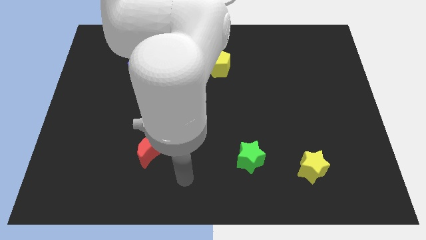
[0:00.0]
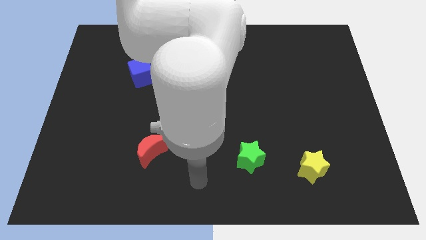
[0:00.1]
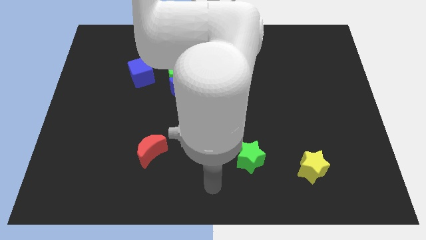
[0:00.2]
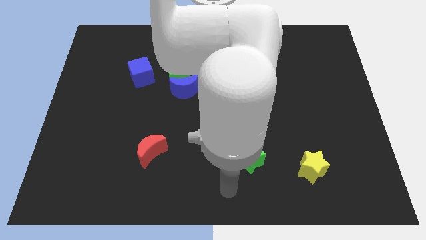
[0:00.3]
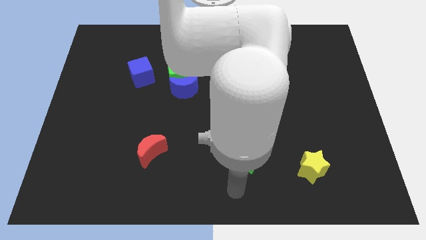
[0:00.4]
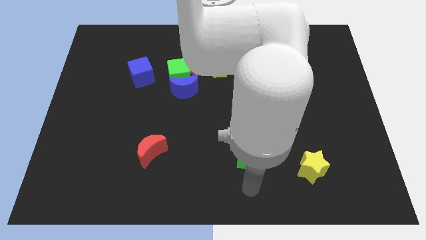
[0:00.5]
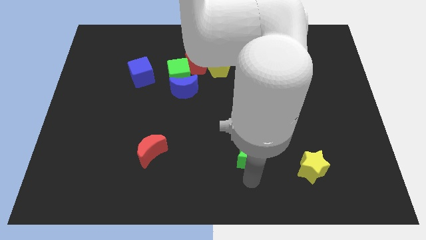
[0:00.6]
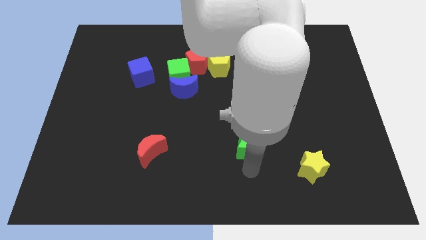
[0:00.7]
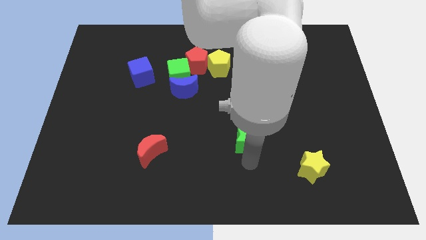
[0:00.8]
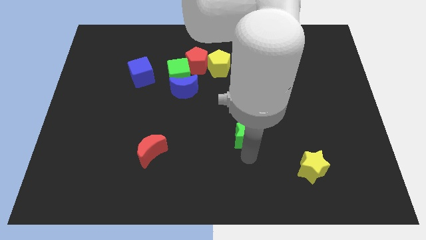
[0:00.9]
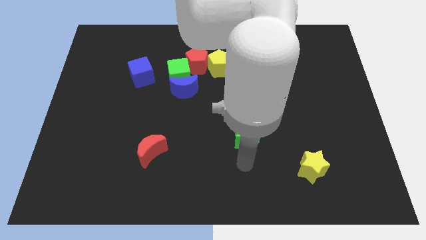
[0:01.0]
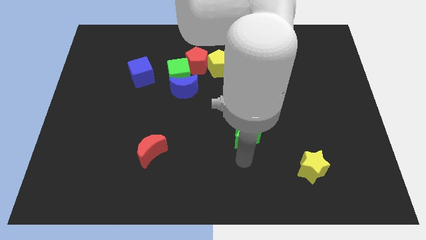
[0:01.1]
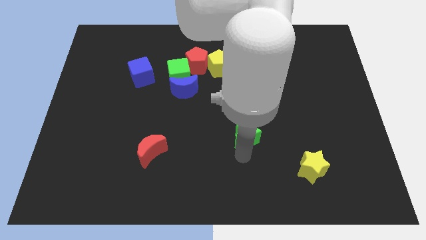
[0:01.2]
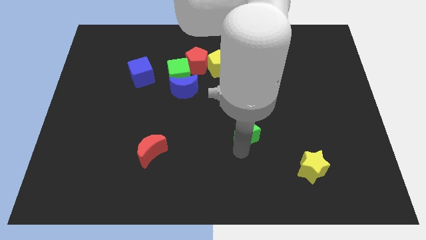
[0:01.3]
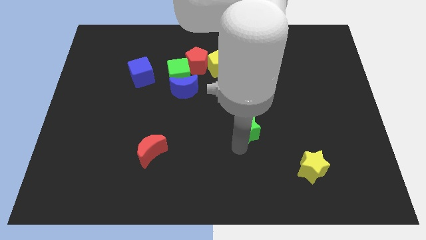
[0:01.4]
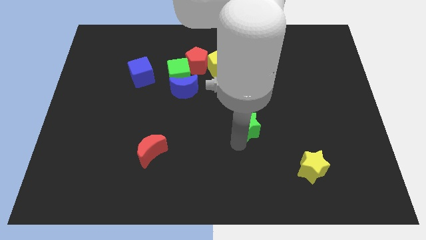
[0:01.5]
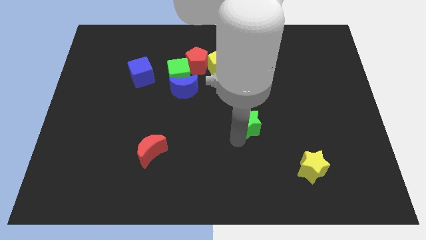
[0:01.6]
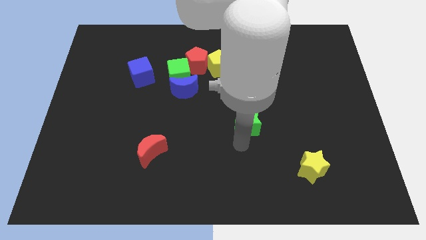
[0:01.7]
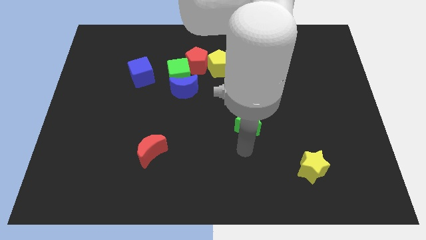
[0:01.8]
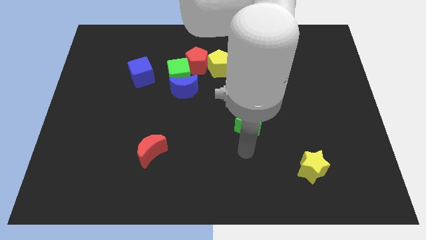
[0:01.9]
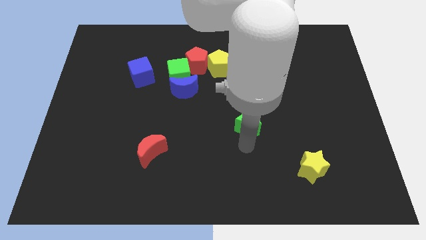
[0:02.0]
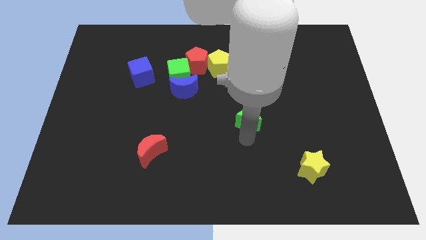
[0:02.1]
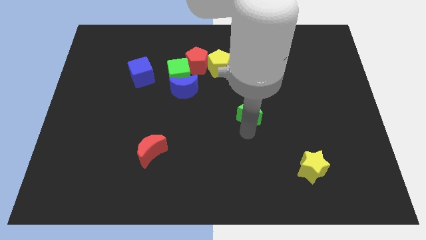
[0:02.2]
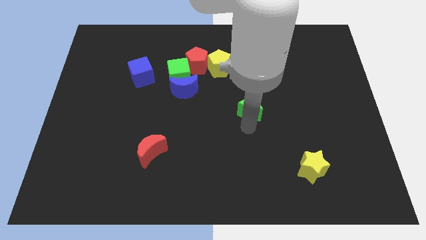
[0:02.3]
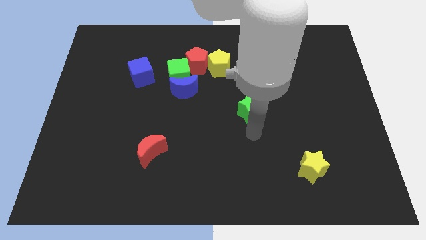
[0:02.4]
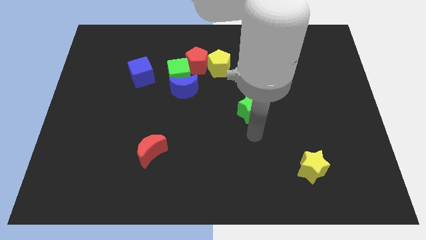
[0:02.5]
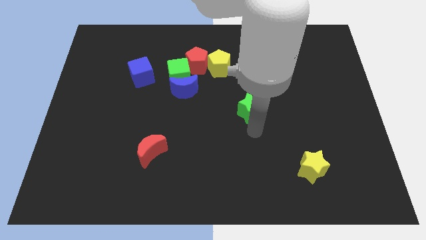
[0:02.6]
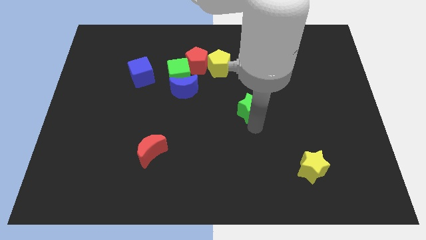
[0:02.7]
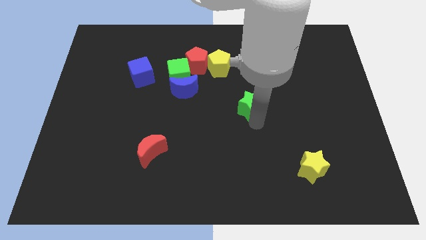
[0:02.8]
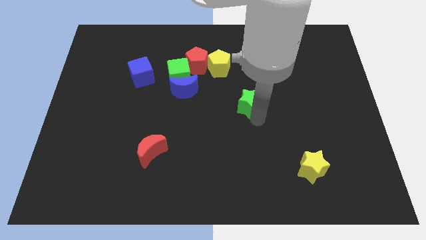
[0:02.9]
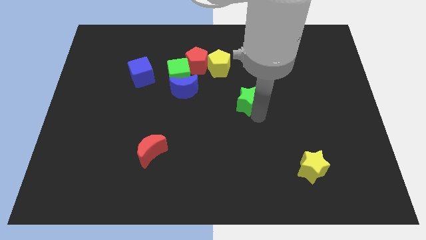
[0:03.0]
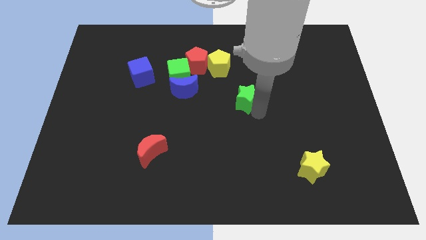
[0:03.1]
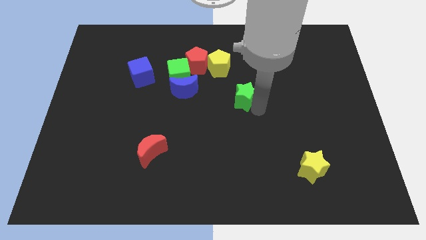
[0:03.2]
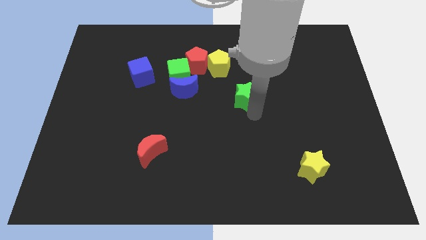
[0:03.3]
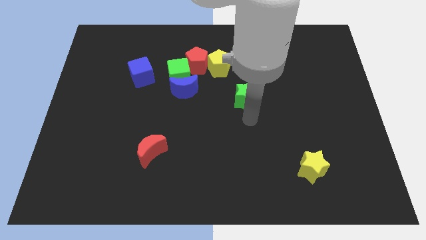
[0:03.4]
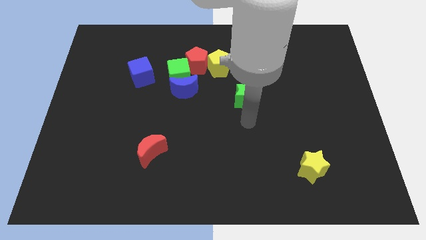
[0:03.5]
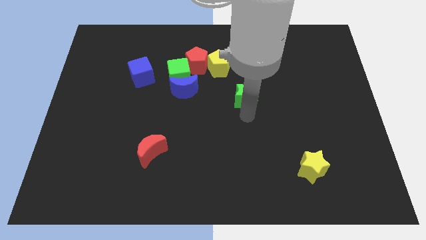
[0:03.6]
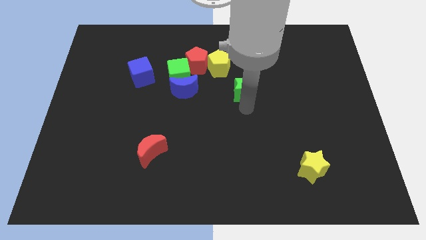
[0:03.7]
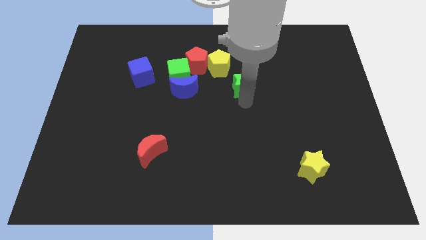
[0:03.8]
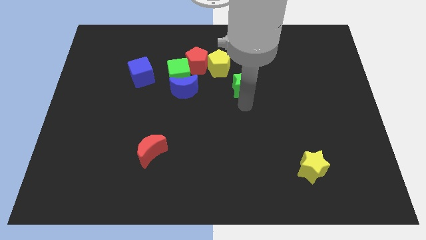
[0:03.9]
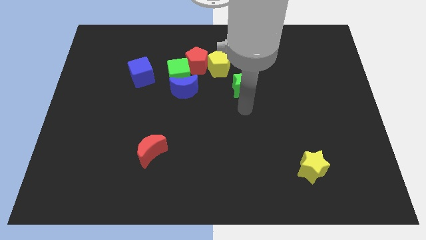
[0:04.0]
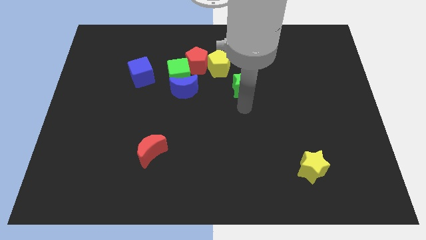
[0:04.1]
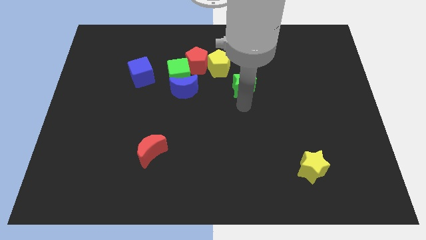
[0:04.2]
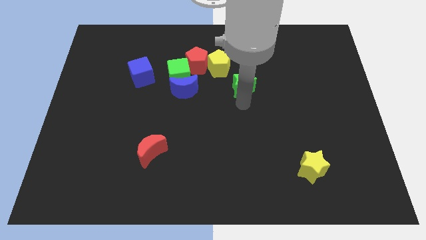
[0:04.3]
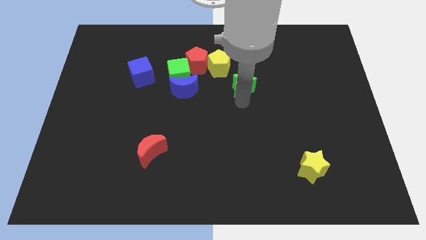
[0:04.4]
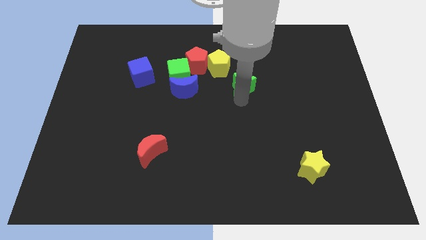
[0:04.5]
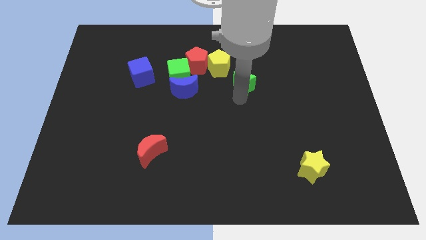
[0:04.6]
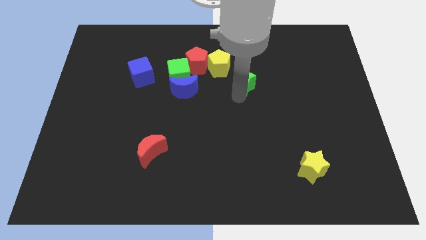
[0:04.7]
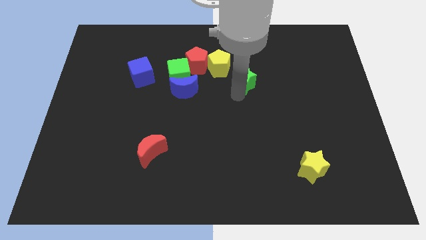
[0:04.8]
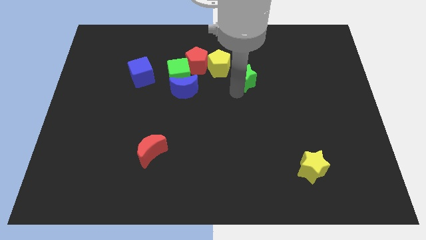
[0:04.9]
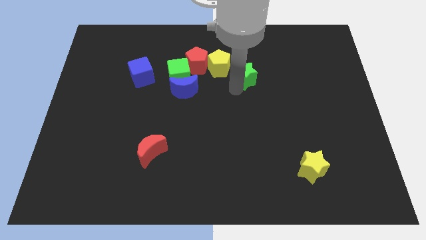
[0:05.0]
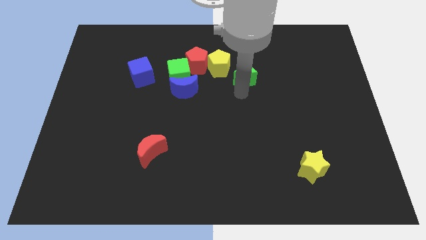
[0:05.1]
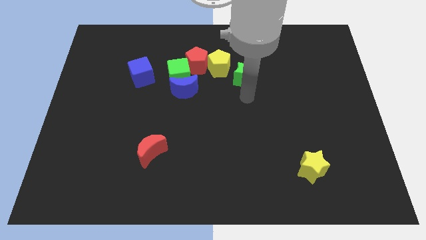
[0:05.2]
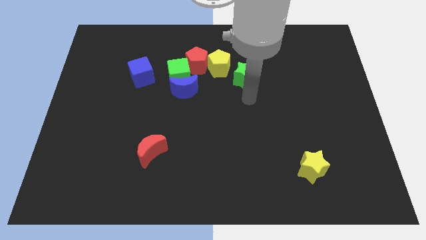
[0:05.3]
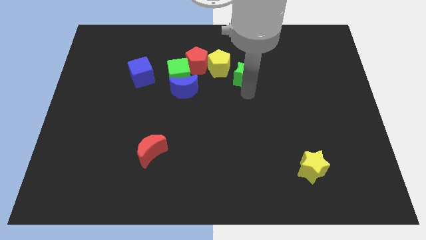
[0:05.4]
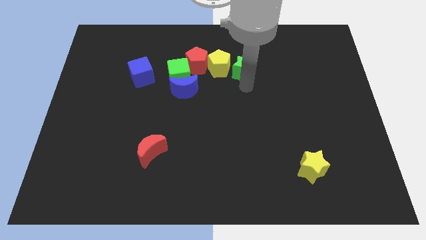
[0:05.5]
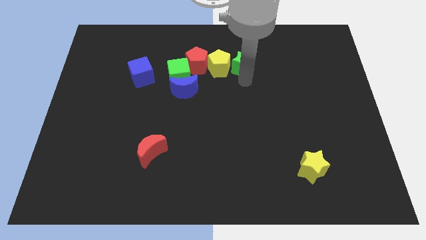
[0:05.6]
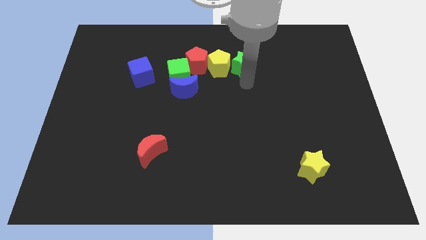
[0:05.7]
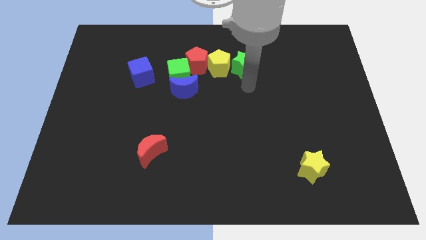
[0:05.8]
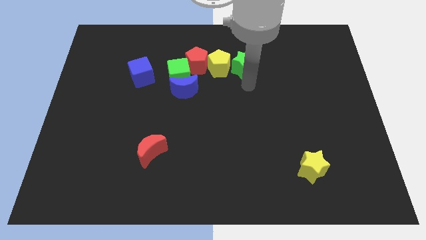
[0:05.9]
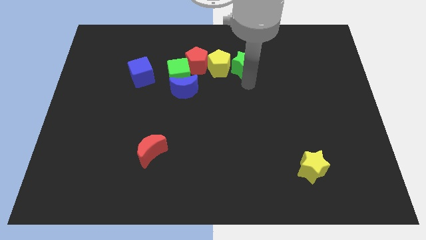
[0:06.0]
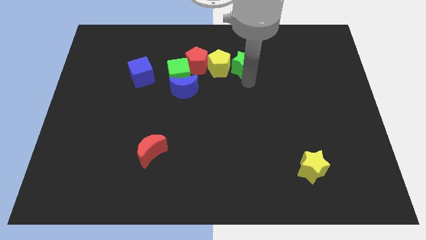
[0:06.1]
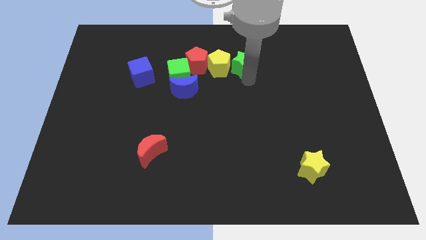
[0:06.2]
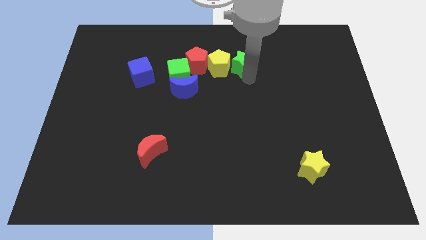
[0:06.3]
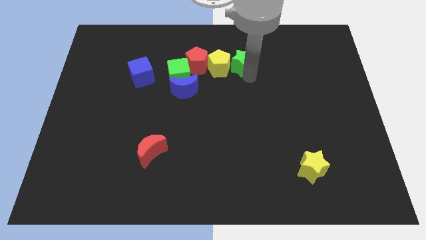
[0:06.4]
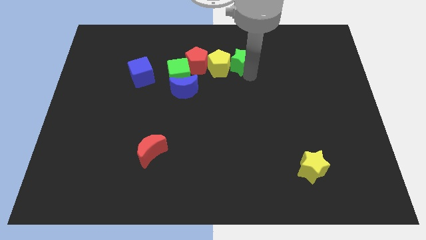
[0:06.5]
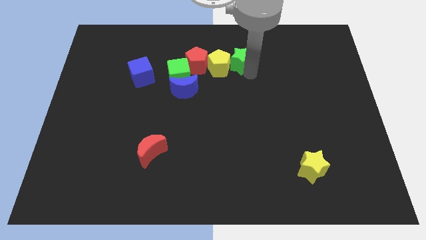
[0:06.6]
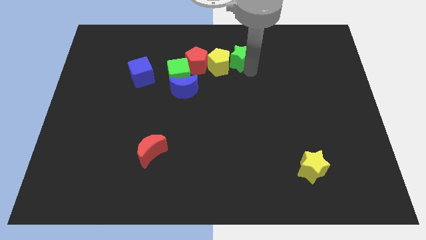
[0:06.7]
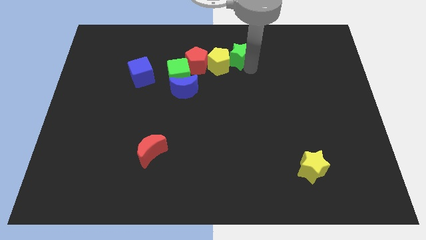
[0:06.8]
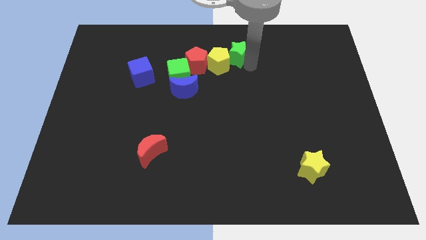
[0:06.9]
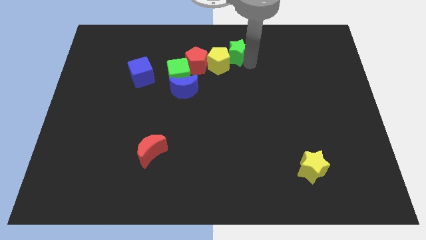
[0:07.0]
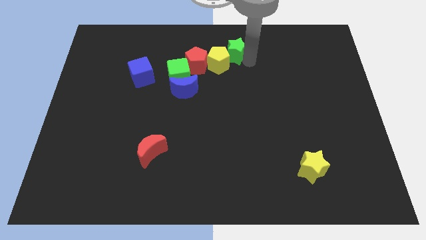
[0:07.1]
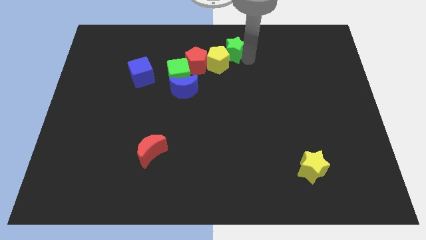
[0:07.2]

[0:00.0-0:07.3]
move the green star to the top side
